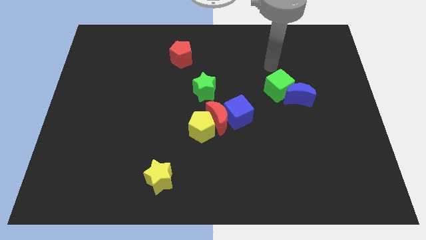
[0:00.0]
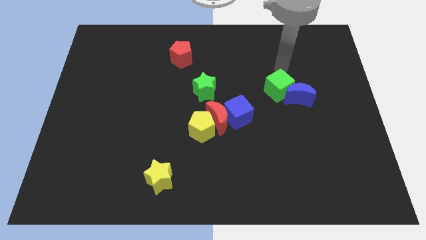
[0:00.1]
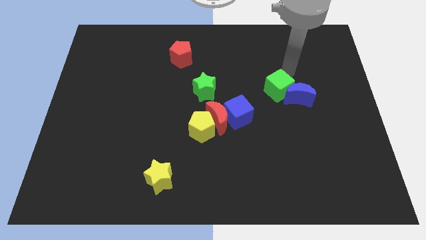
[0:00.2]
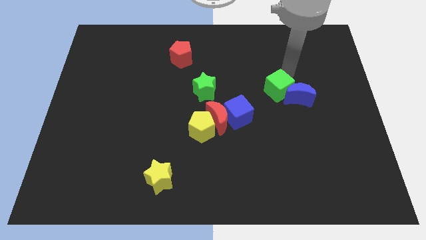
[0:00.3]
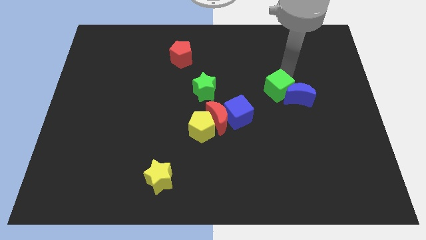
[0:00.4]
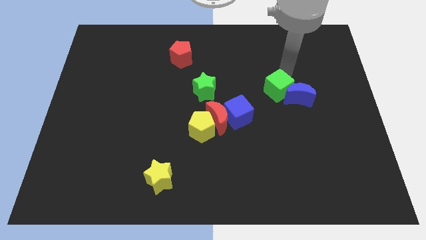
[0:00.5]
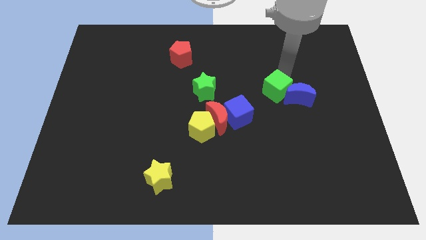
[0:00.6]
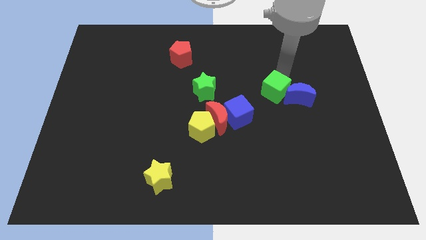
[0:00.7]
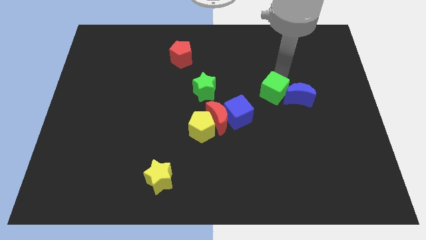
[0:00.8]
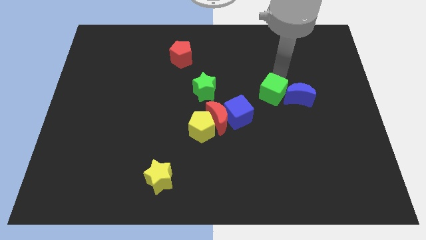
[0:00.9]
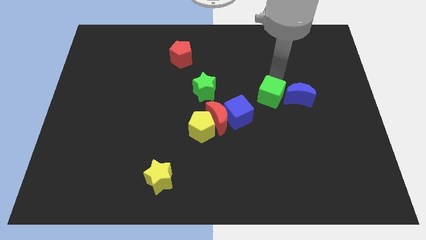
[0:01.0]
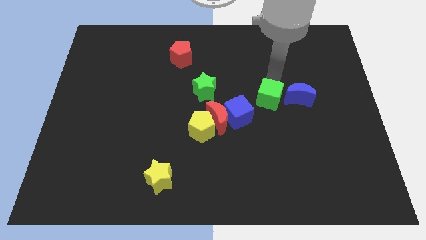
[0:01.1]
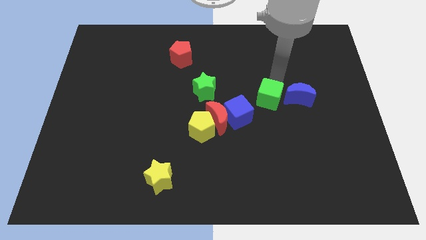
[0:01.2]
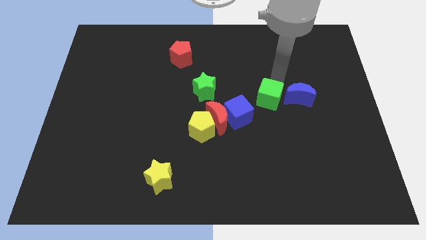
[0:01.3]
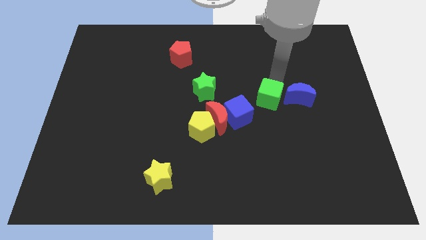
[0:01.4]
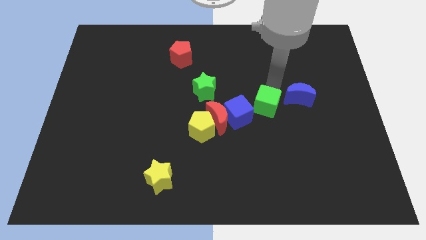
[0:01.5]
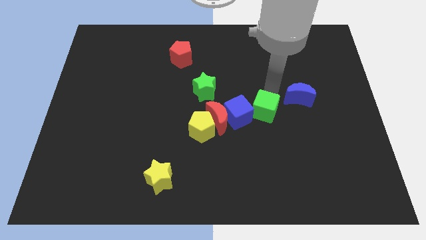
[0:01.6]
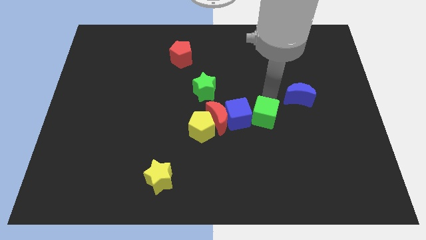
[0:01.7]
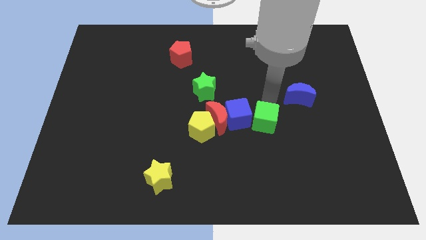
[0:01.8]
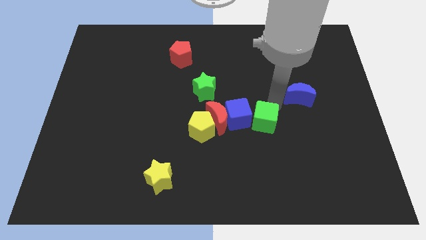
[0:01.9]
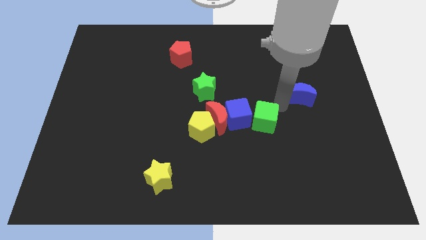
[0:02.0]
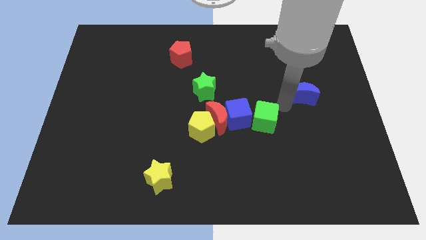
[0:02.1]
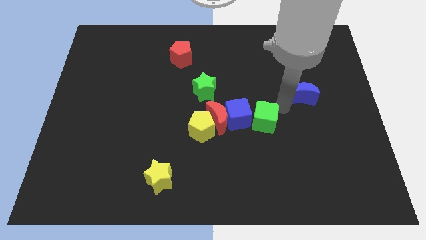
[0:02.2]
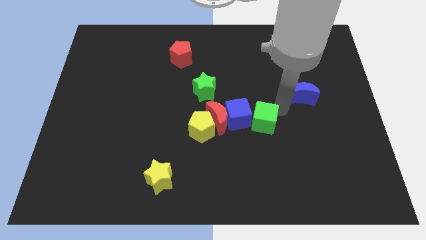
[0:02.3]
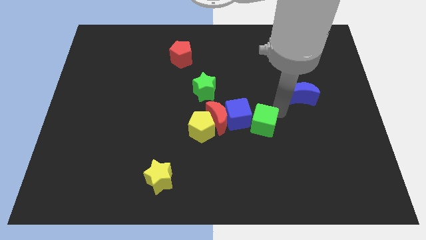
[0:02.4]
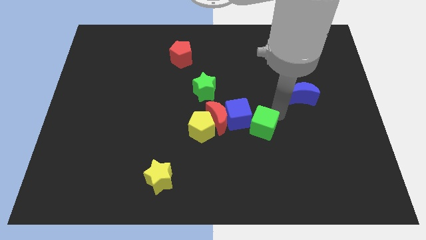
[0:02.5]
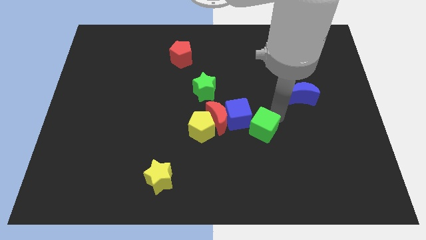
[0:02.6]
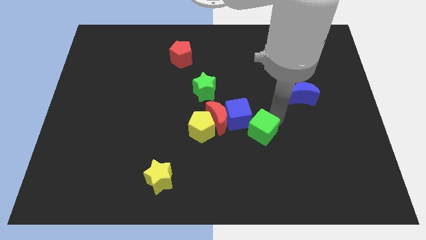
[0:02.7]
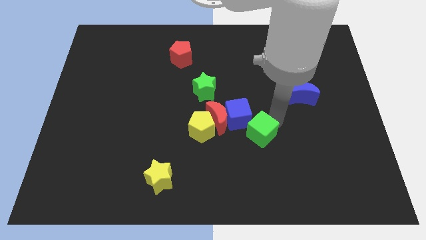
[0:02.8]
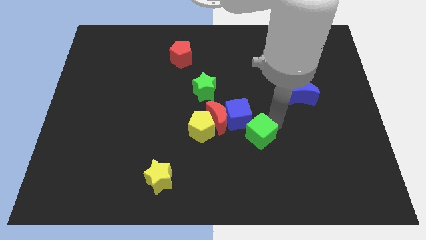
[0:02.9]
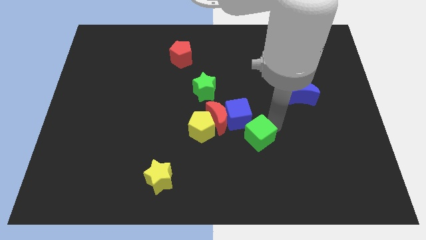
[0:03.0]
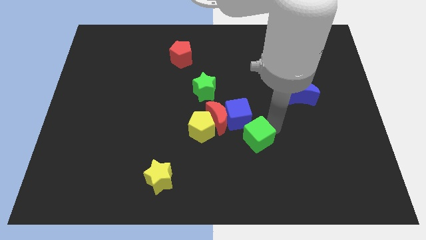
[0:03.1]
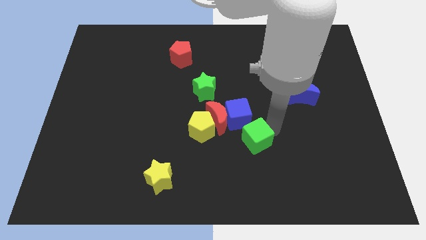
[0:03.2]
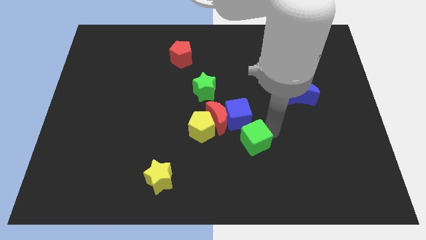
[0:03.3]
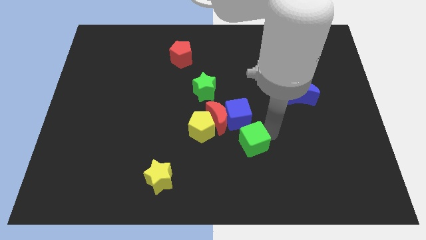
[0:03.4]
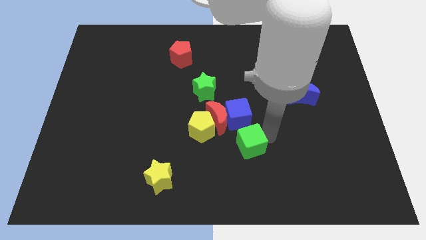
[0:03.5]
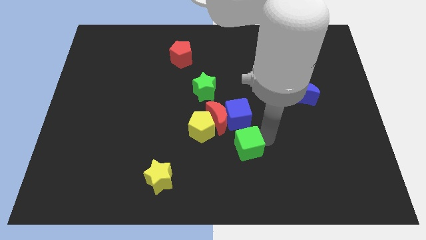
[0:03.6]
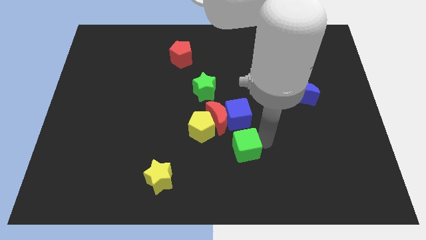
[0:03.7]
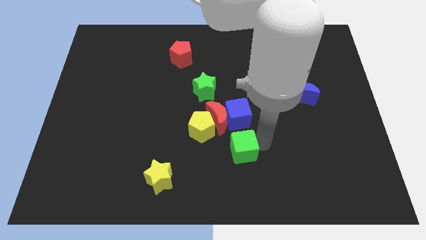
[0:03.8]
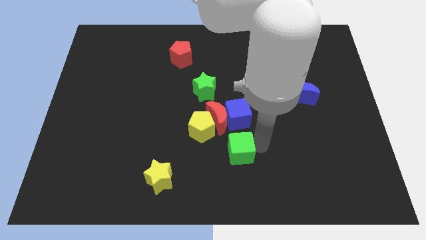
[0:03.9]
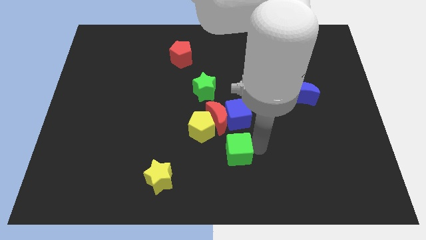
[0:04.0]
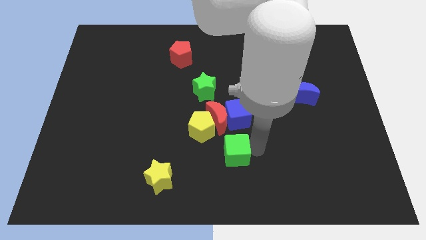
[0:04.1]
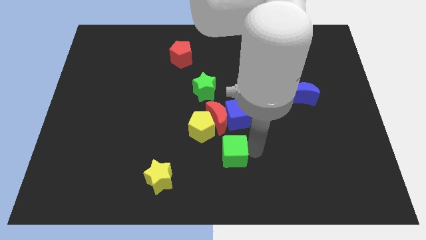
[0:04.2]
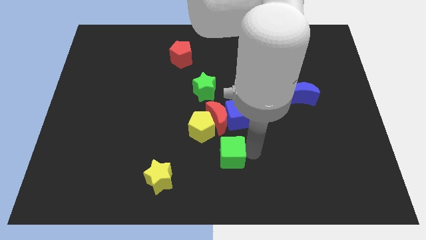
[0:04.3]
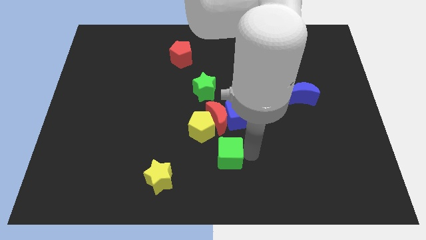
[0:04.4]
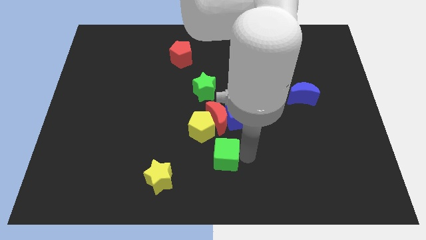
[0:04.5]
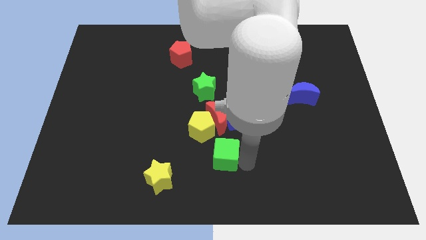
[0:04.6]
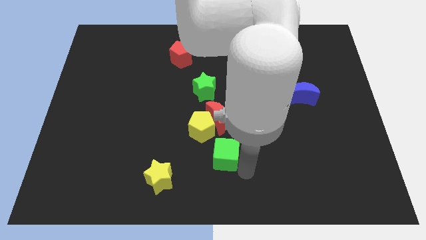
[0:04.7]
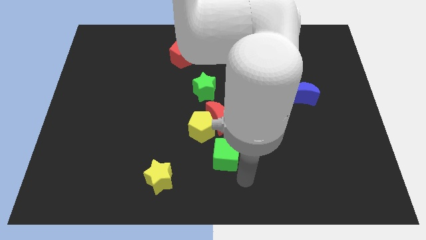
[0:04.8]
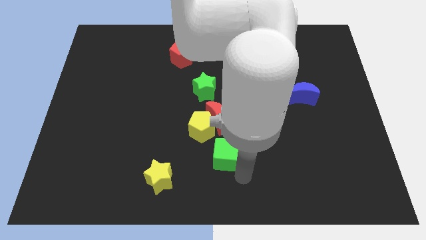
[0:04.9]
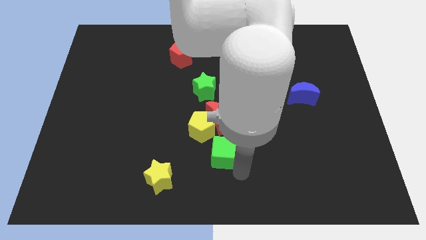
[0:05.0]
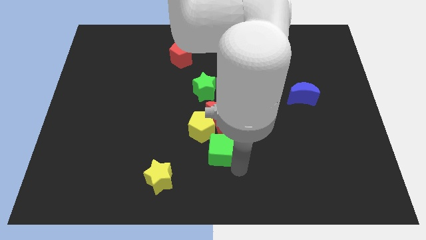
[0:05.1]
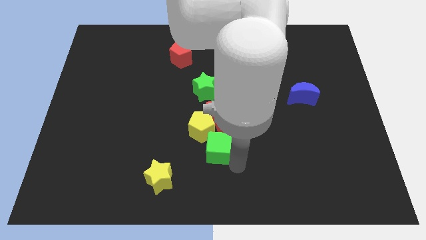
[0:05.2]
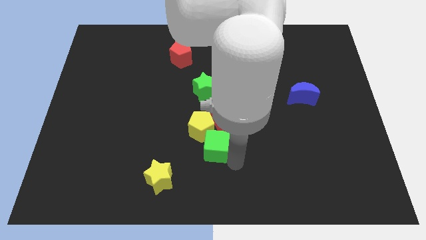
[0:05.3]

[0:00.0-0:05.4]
put the green cube next to the yellow pentagon

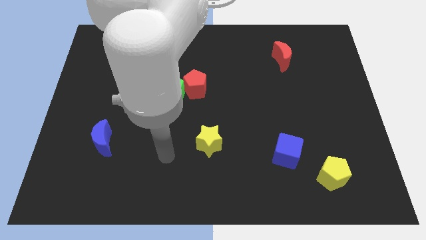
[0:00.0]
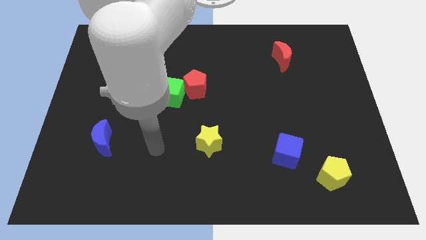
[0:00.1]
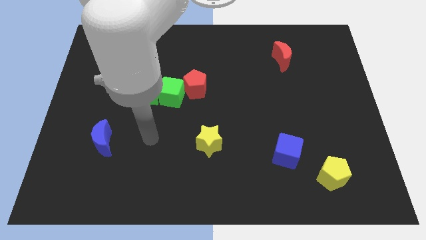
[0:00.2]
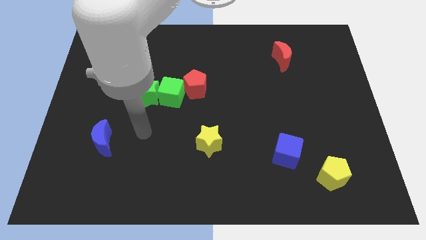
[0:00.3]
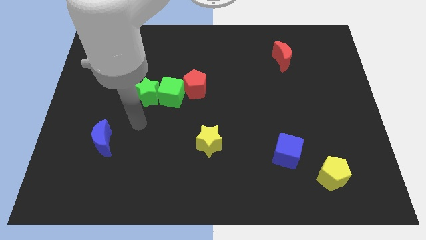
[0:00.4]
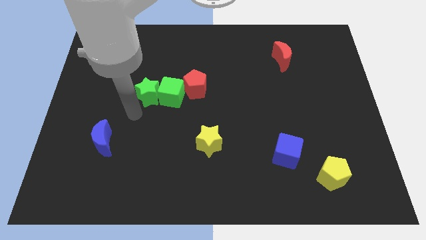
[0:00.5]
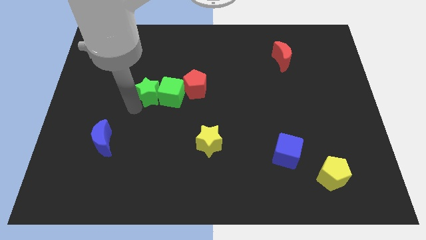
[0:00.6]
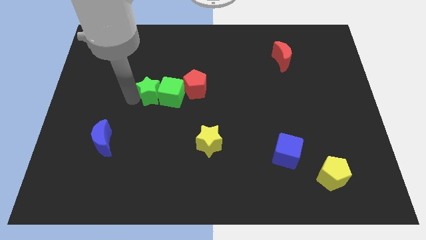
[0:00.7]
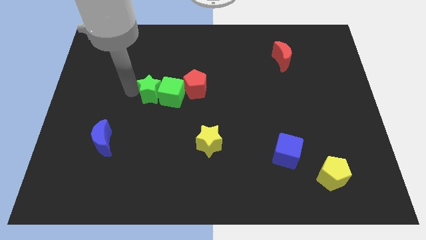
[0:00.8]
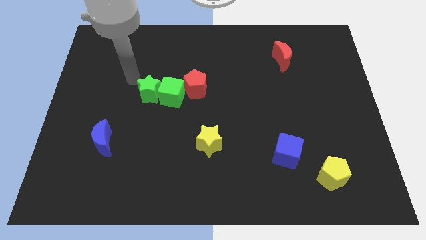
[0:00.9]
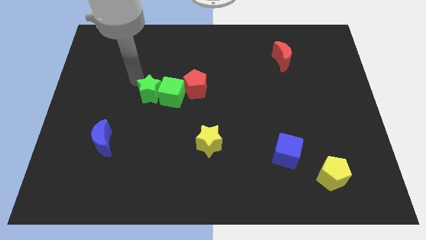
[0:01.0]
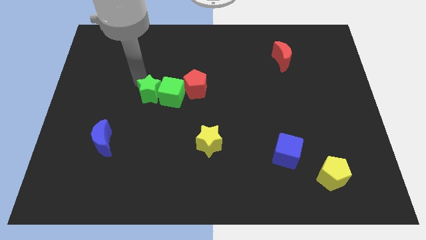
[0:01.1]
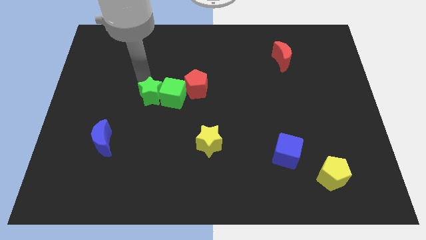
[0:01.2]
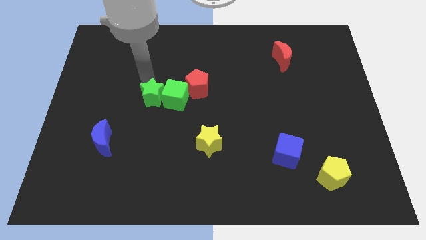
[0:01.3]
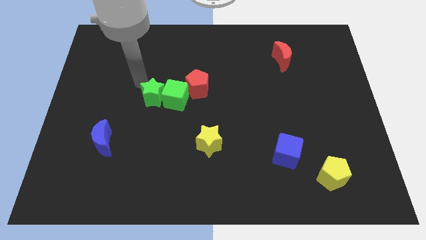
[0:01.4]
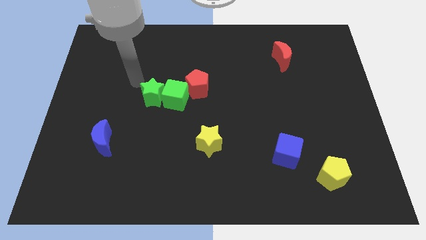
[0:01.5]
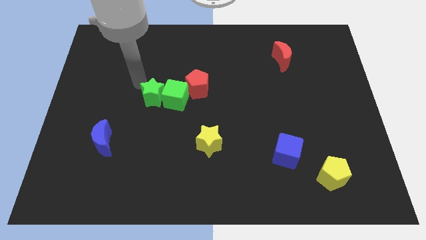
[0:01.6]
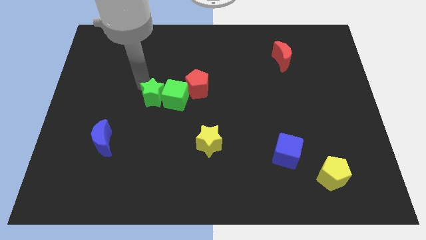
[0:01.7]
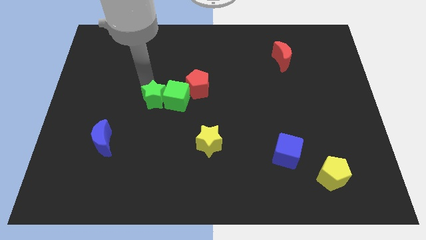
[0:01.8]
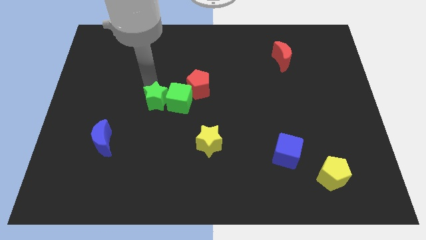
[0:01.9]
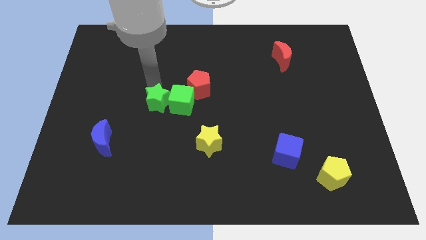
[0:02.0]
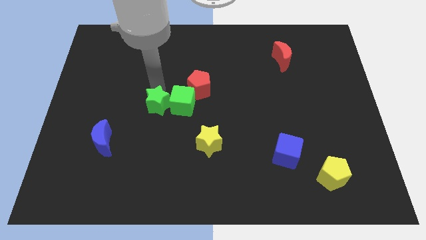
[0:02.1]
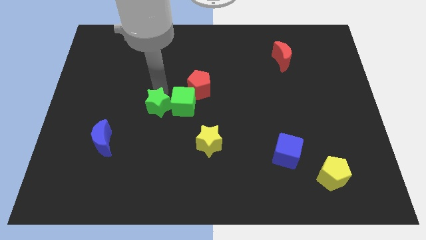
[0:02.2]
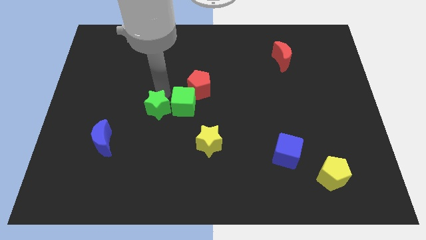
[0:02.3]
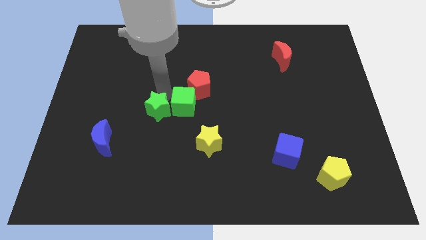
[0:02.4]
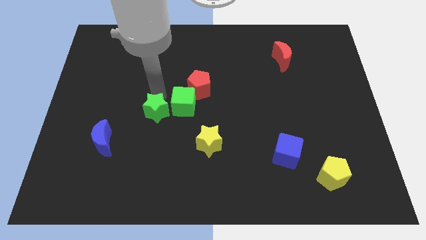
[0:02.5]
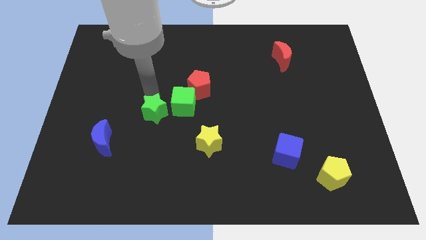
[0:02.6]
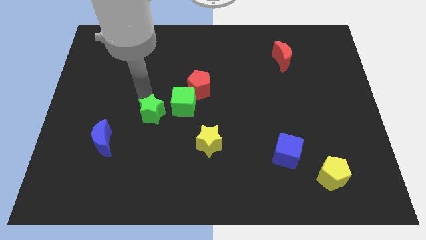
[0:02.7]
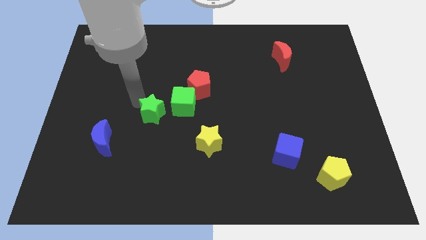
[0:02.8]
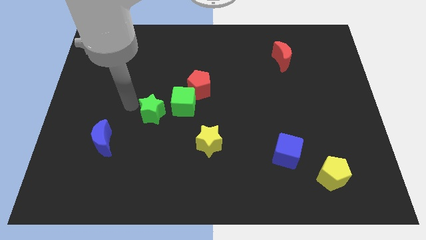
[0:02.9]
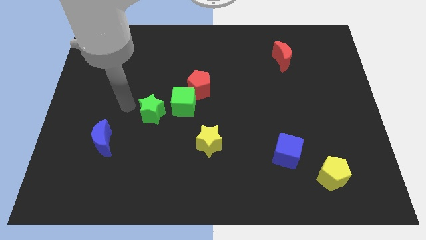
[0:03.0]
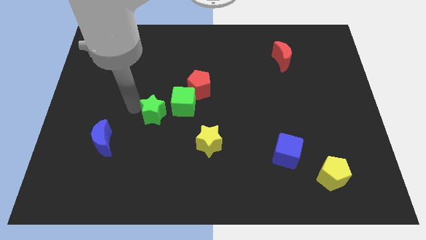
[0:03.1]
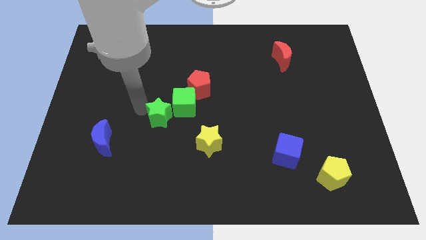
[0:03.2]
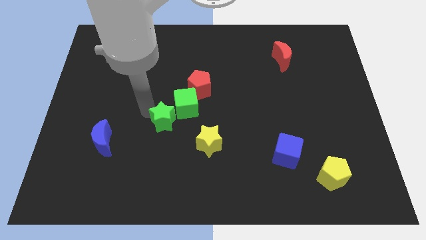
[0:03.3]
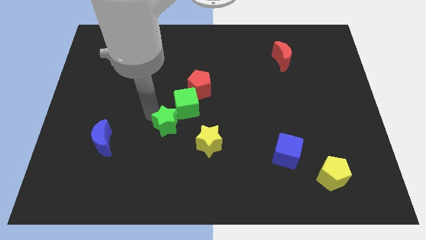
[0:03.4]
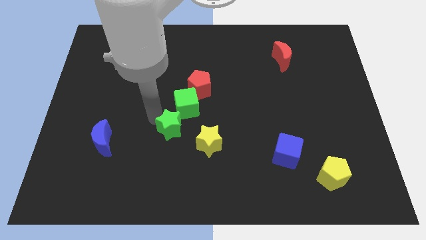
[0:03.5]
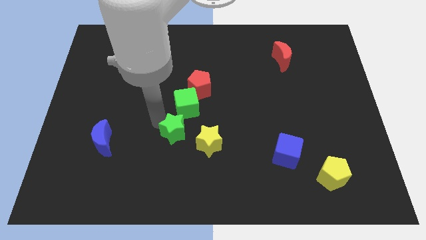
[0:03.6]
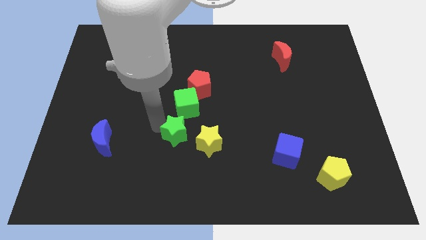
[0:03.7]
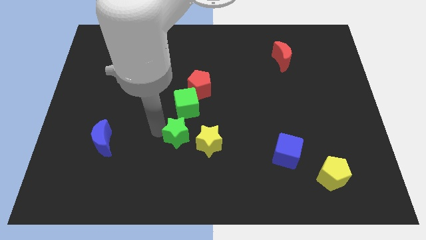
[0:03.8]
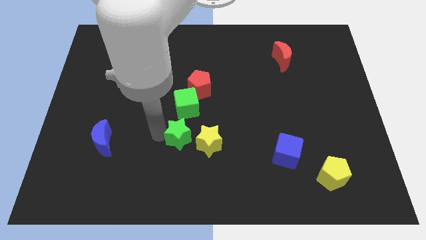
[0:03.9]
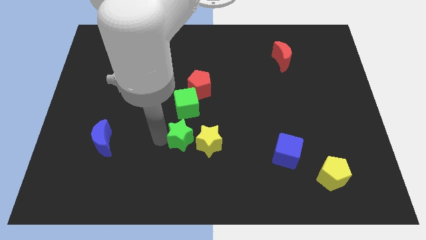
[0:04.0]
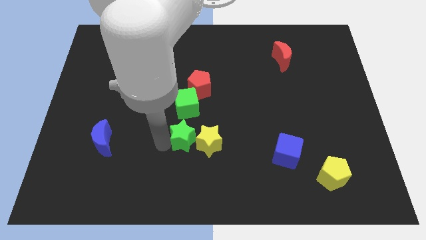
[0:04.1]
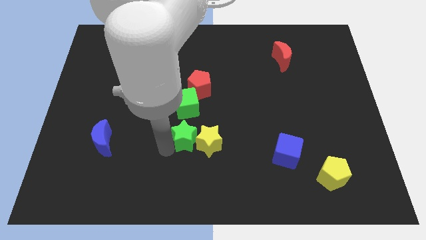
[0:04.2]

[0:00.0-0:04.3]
move the green star towards the yellow star
